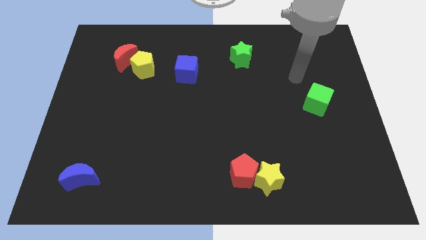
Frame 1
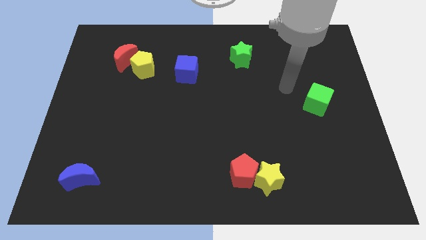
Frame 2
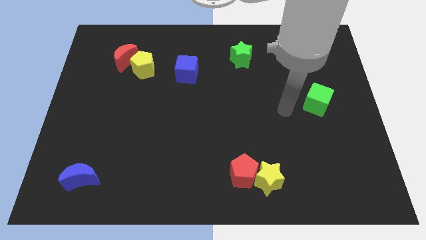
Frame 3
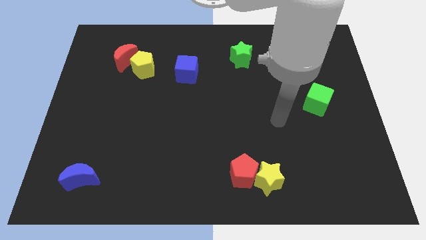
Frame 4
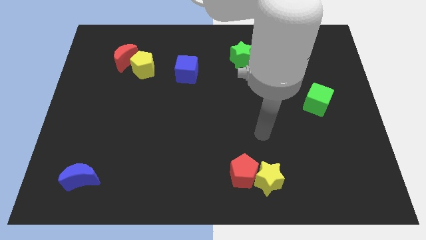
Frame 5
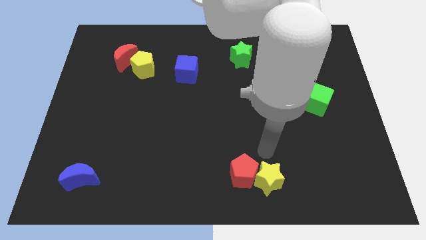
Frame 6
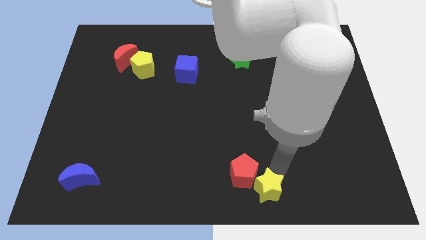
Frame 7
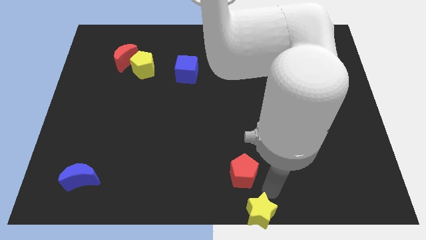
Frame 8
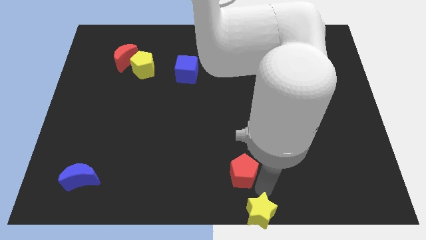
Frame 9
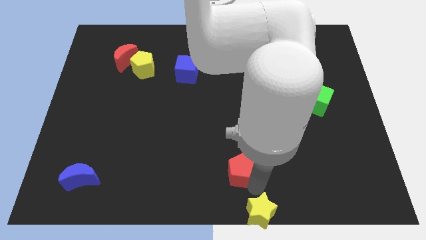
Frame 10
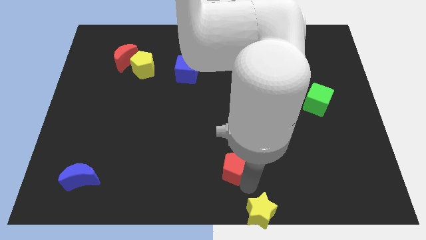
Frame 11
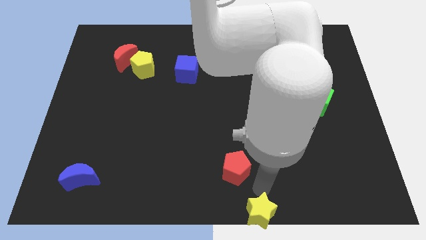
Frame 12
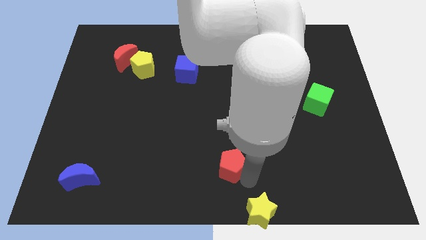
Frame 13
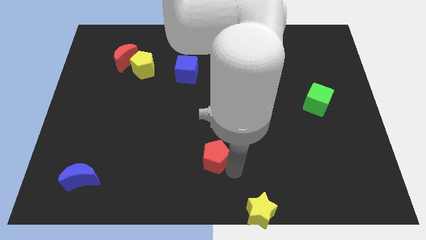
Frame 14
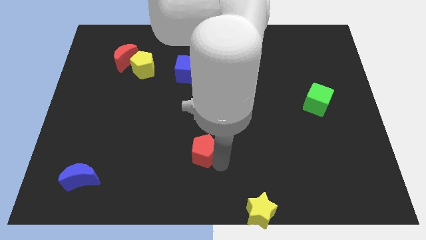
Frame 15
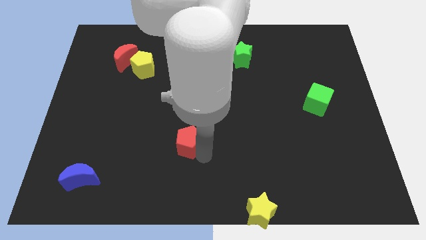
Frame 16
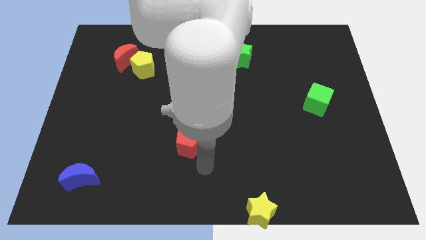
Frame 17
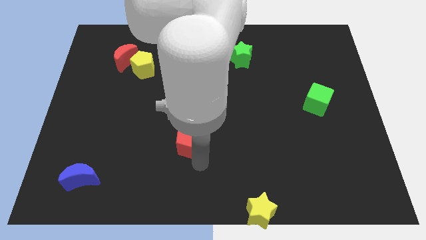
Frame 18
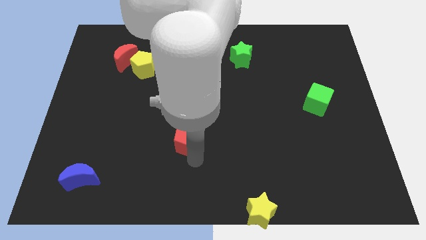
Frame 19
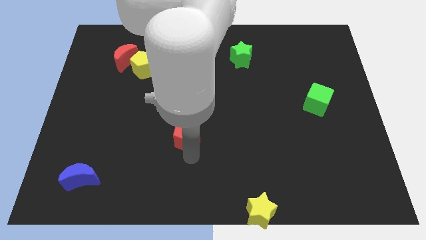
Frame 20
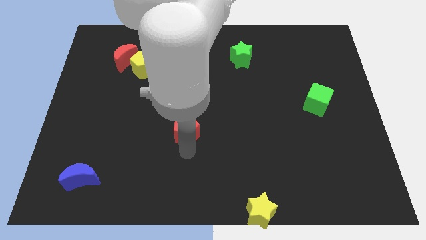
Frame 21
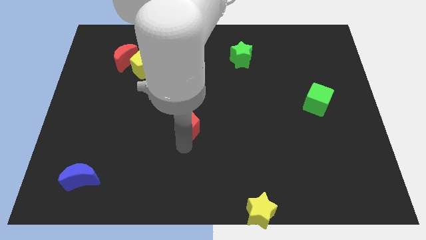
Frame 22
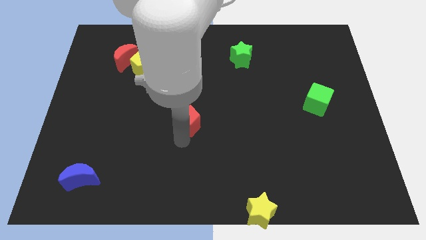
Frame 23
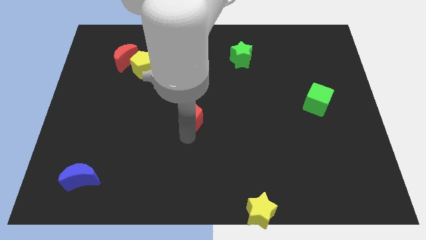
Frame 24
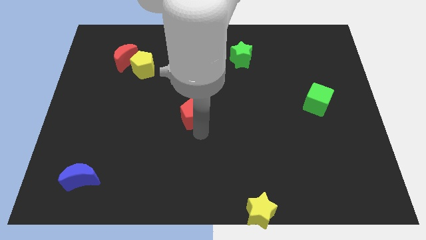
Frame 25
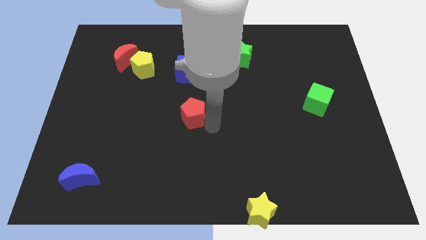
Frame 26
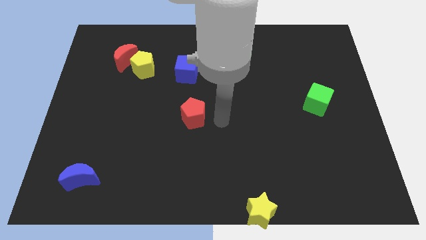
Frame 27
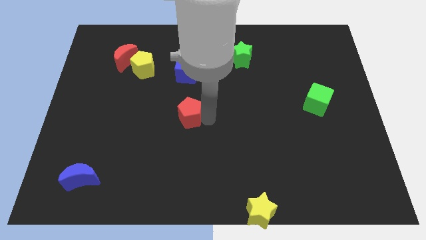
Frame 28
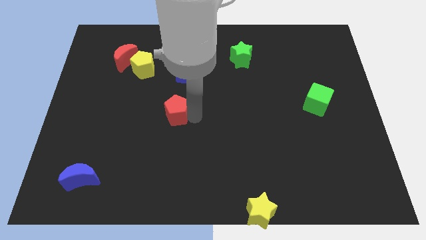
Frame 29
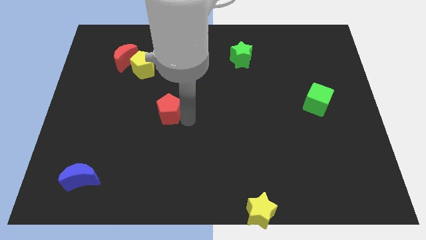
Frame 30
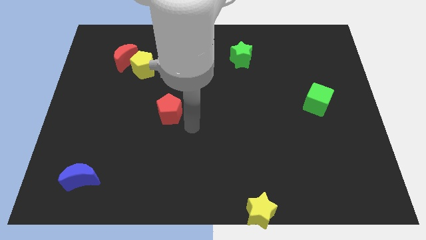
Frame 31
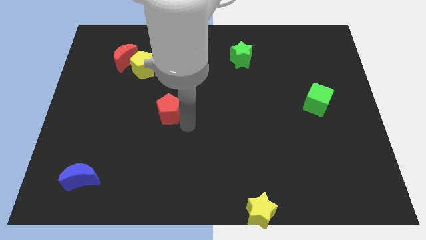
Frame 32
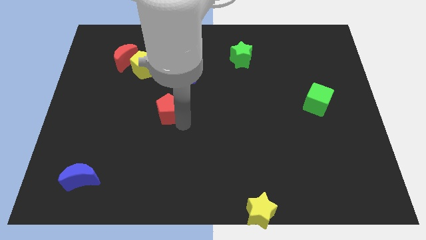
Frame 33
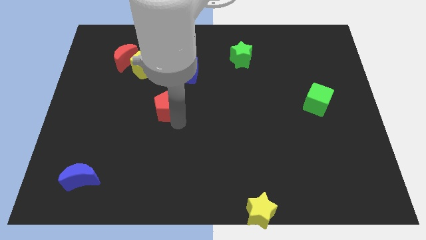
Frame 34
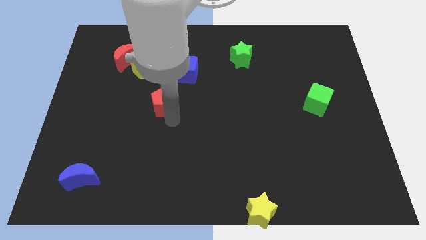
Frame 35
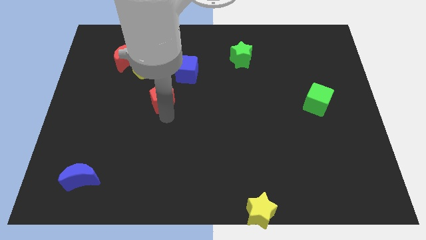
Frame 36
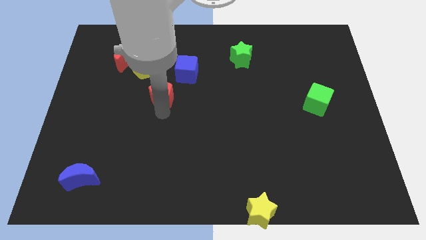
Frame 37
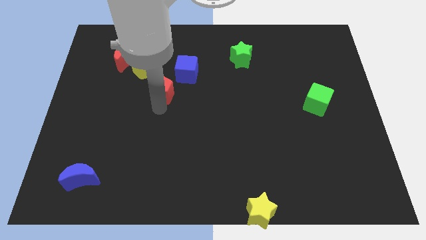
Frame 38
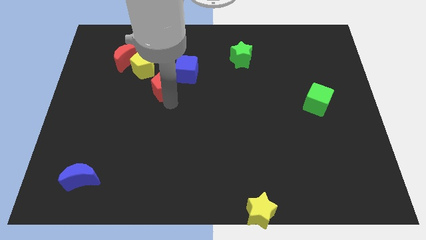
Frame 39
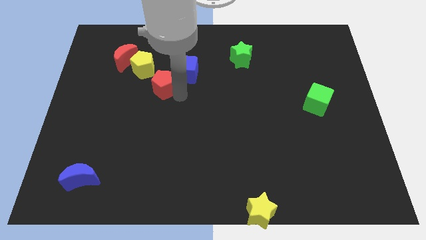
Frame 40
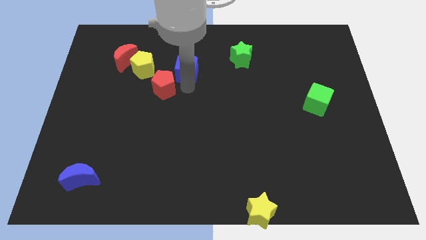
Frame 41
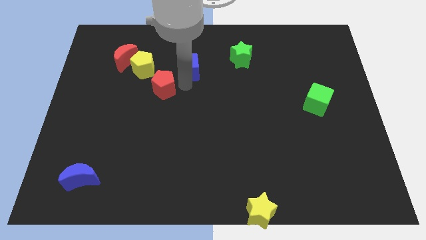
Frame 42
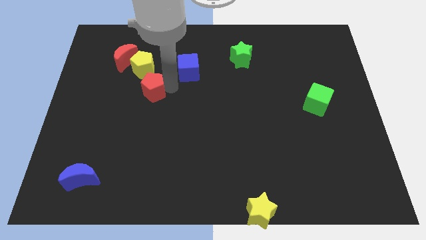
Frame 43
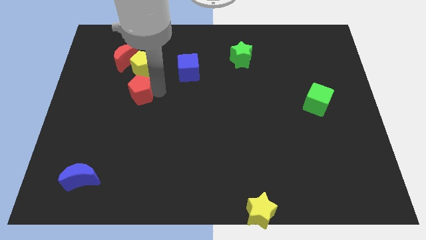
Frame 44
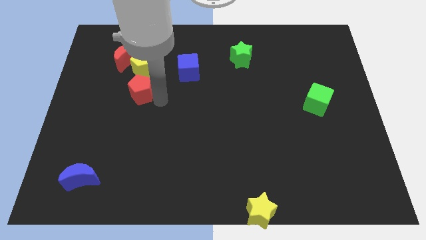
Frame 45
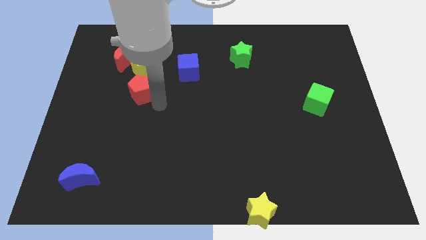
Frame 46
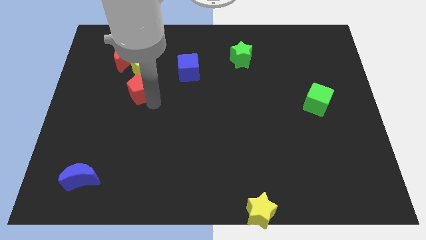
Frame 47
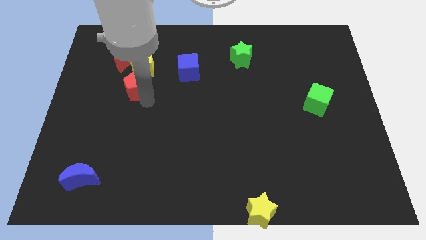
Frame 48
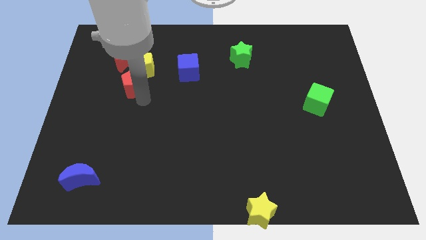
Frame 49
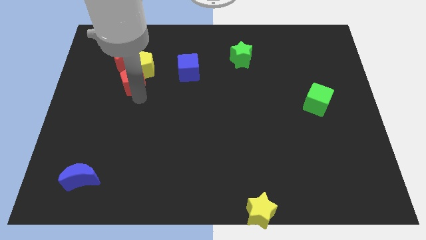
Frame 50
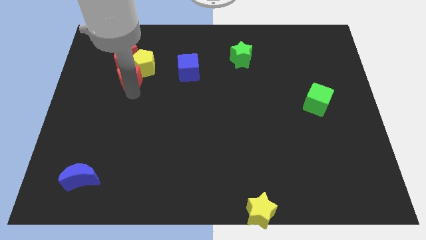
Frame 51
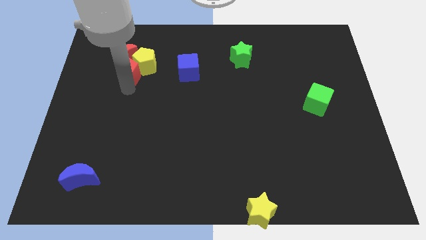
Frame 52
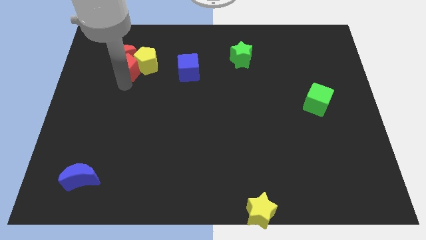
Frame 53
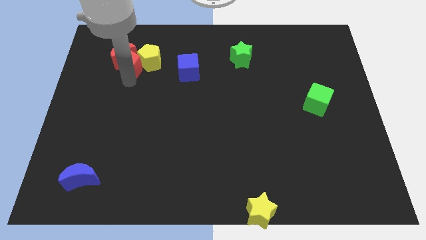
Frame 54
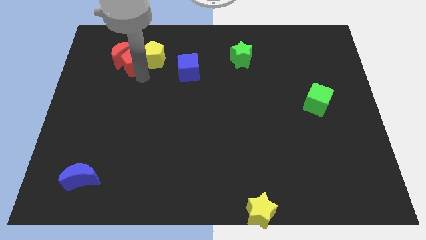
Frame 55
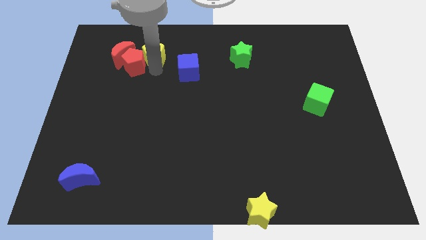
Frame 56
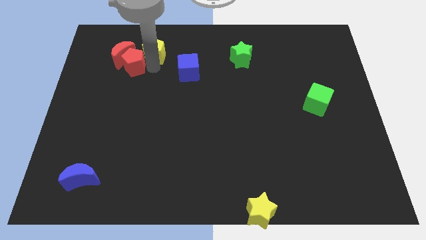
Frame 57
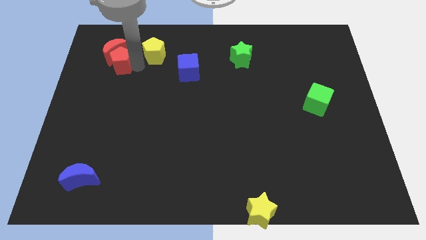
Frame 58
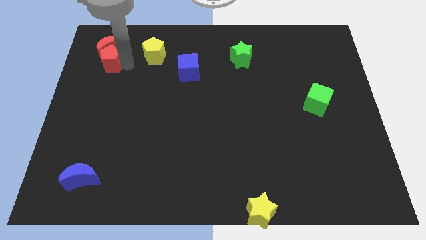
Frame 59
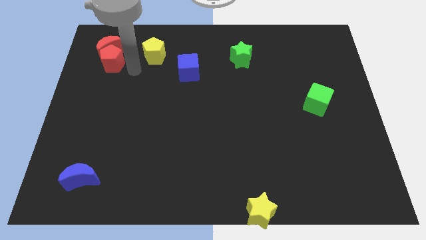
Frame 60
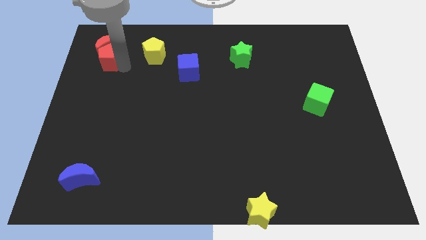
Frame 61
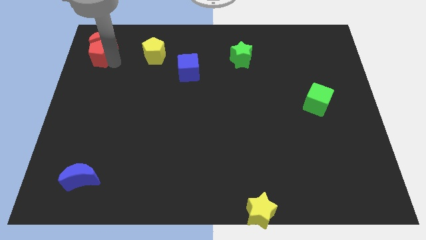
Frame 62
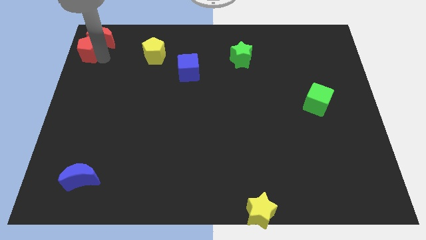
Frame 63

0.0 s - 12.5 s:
slide the red pentagon to the upper left corner

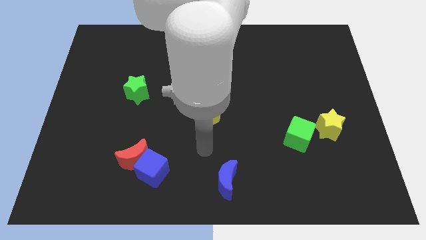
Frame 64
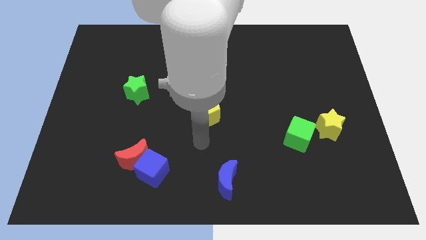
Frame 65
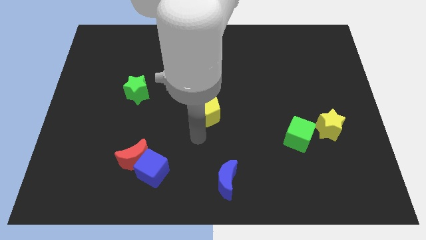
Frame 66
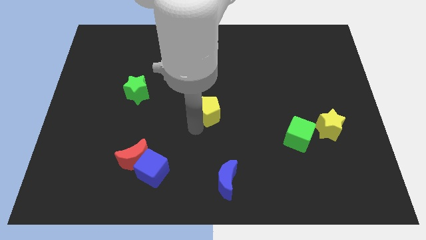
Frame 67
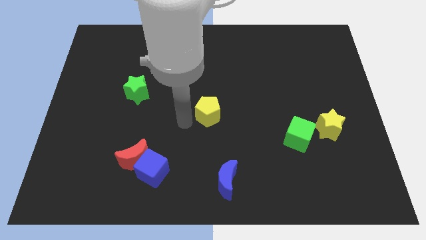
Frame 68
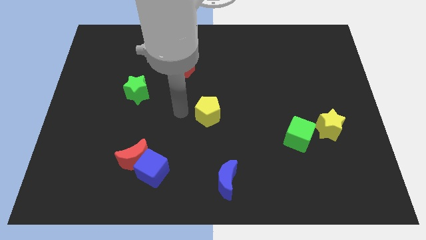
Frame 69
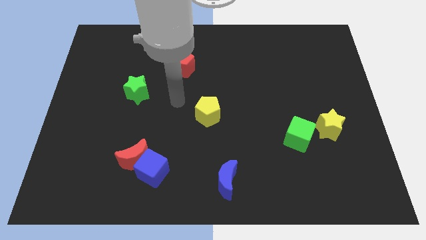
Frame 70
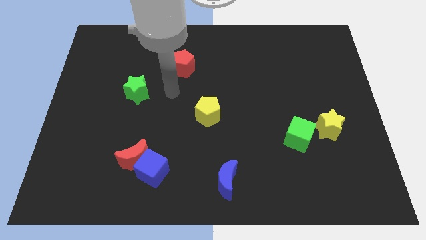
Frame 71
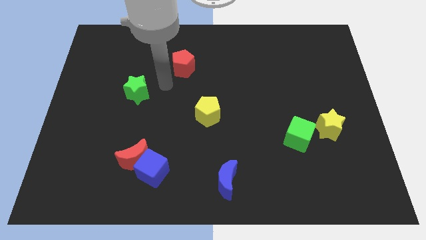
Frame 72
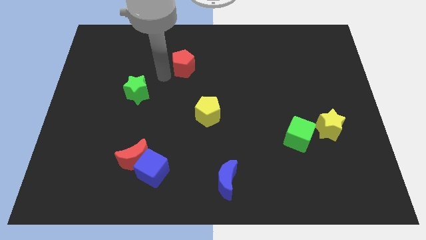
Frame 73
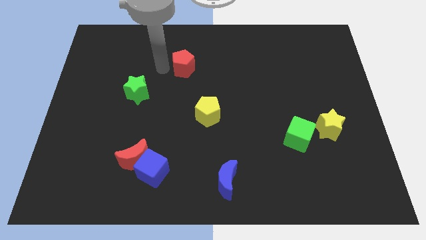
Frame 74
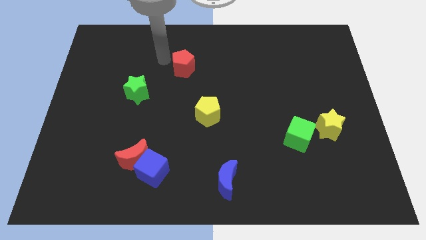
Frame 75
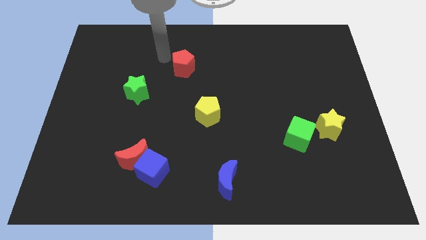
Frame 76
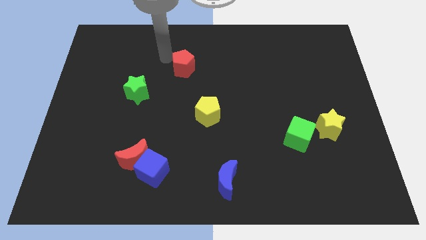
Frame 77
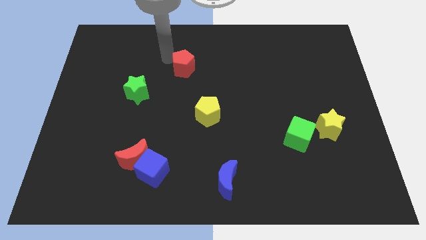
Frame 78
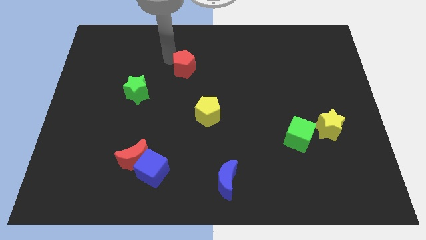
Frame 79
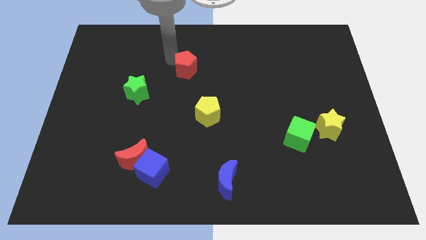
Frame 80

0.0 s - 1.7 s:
move the red pentagon to the middle
